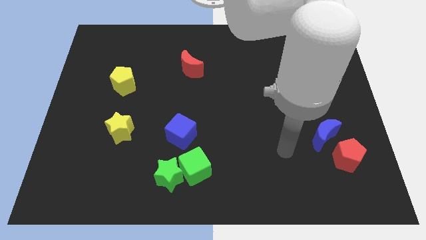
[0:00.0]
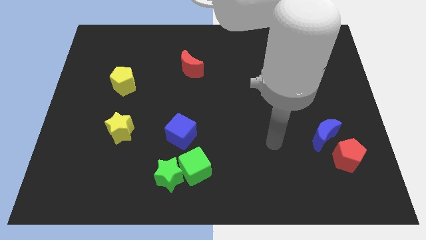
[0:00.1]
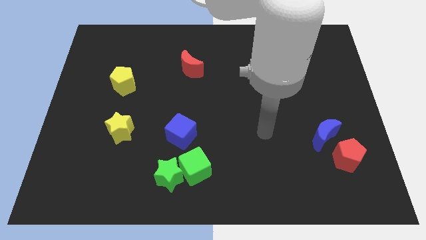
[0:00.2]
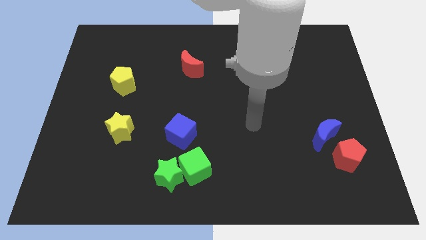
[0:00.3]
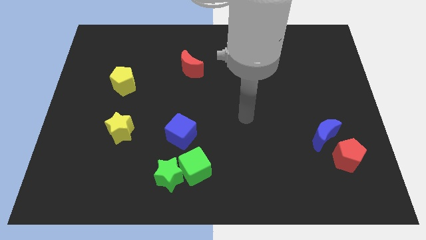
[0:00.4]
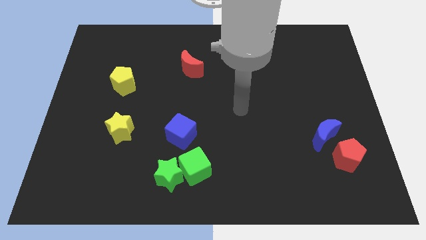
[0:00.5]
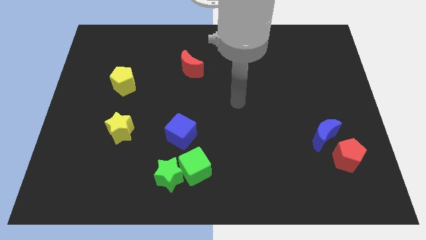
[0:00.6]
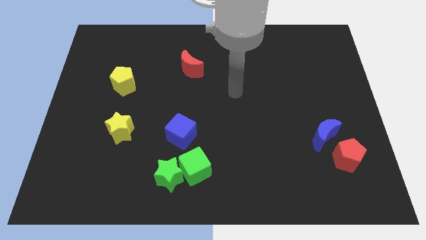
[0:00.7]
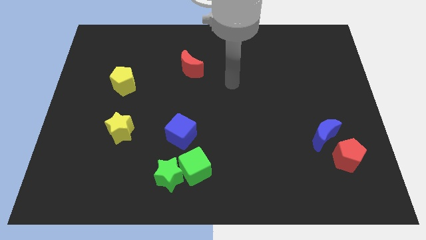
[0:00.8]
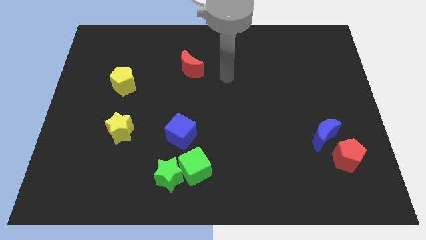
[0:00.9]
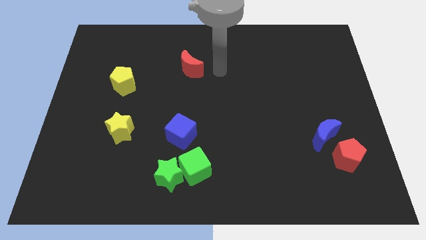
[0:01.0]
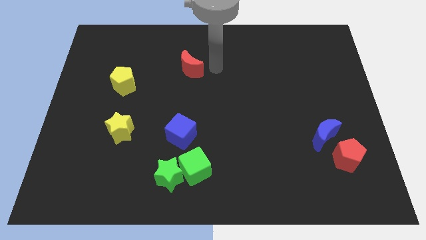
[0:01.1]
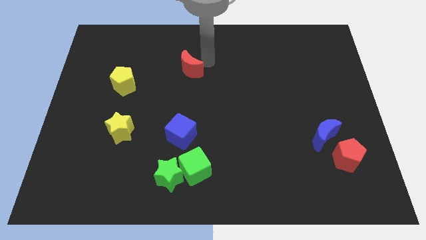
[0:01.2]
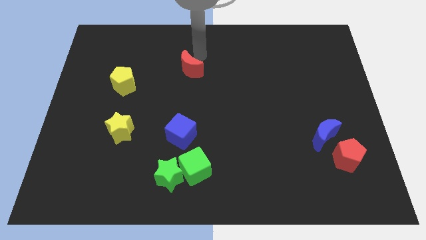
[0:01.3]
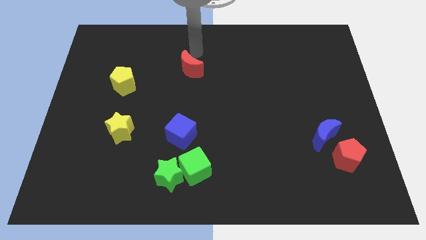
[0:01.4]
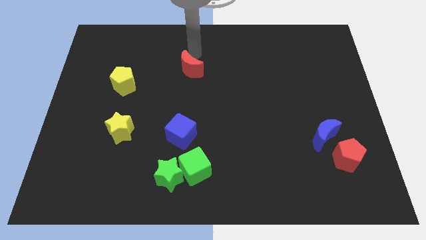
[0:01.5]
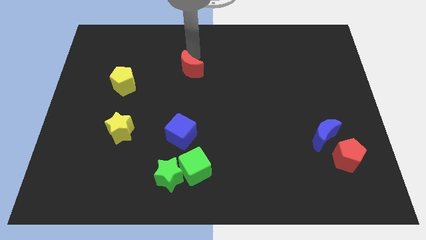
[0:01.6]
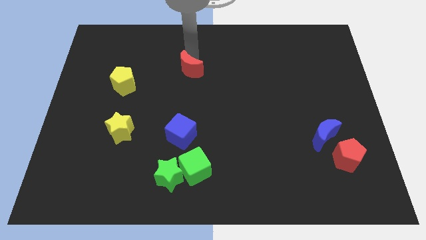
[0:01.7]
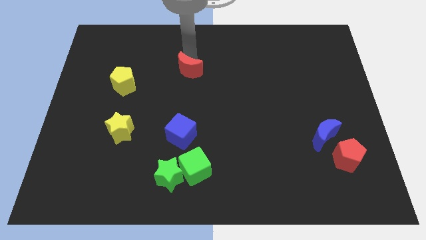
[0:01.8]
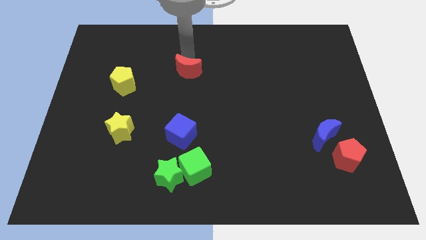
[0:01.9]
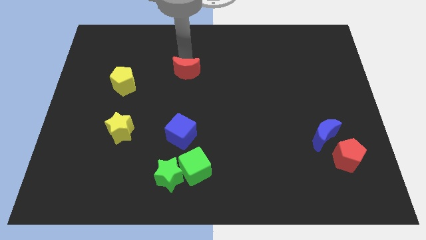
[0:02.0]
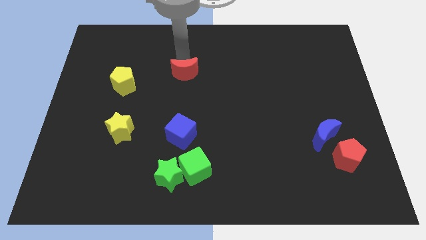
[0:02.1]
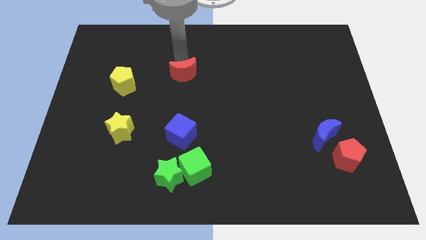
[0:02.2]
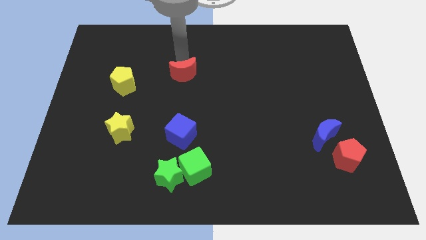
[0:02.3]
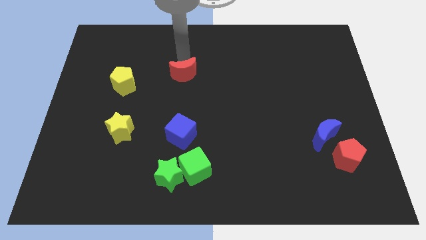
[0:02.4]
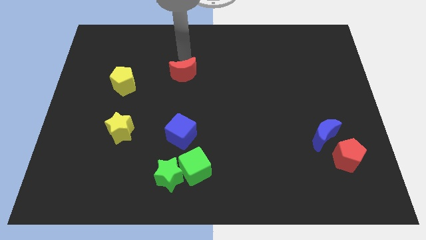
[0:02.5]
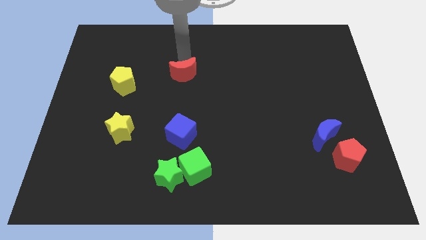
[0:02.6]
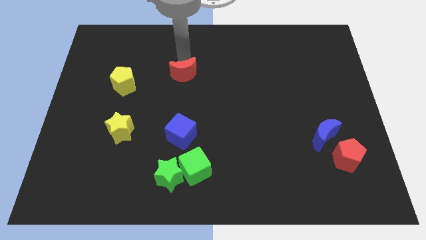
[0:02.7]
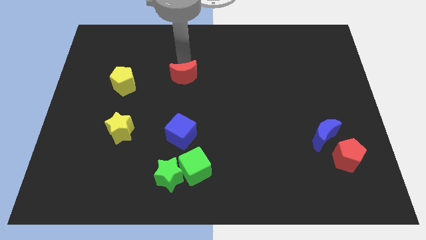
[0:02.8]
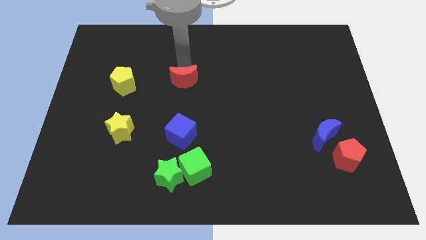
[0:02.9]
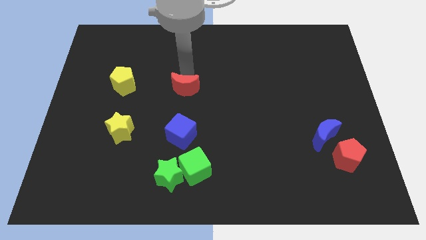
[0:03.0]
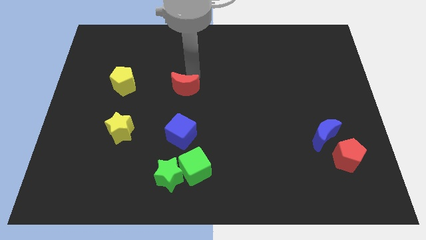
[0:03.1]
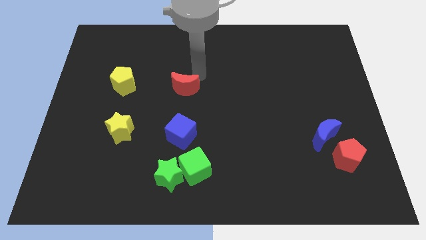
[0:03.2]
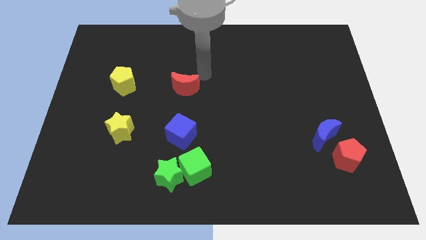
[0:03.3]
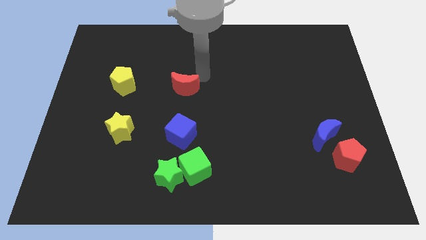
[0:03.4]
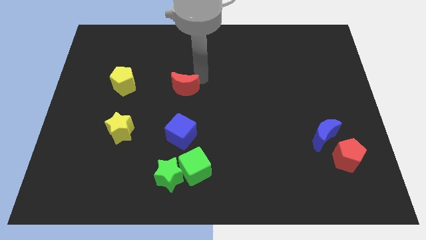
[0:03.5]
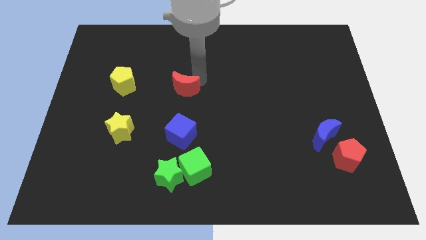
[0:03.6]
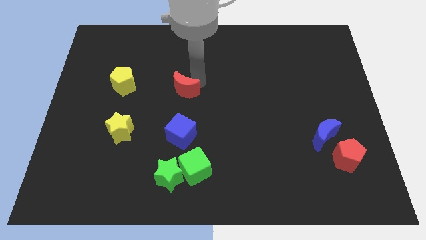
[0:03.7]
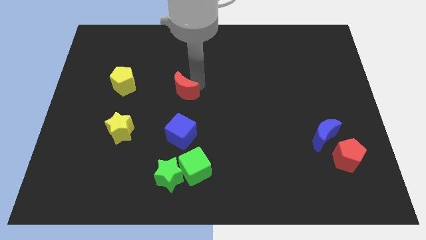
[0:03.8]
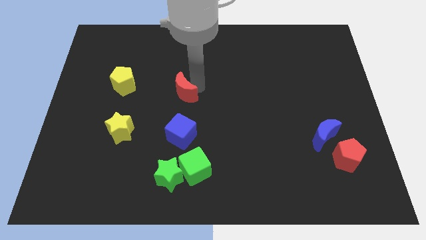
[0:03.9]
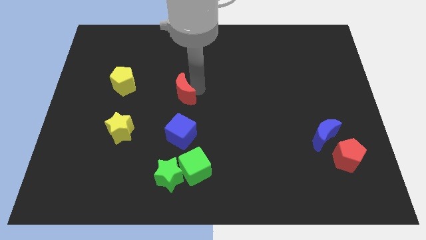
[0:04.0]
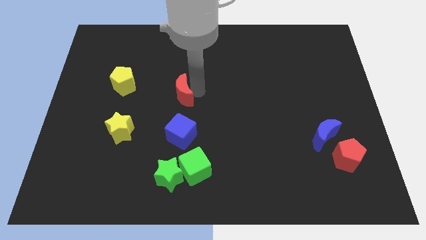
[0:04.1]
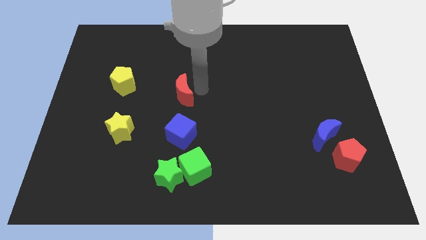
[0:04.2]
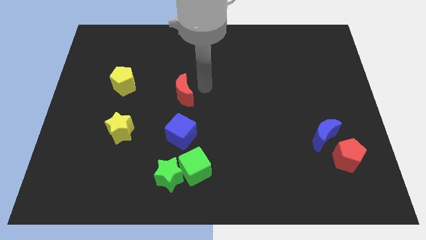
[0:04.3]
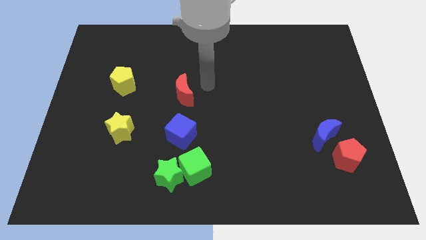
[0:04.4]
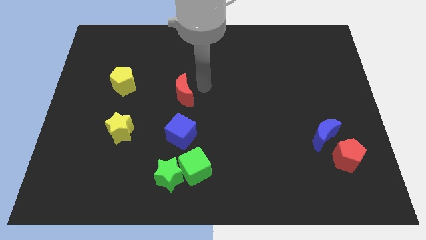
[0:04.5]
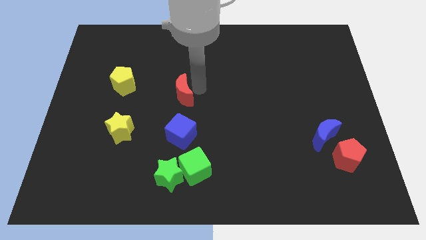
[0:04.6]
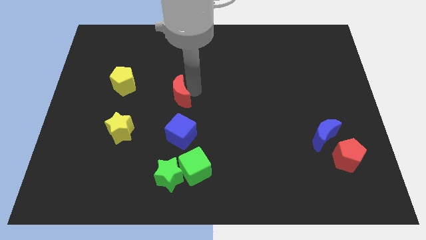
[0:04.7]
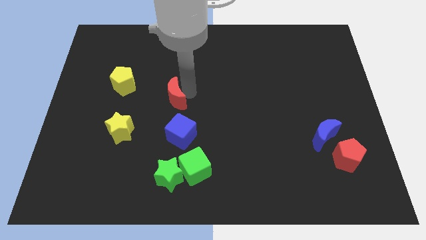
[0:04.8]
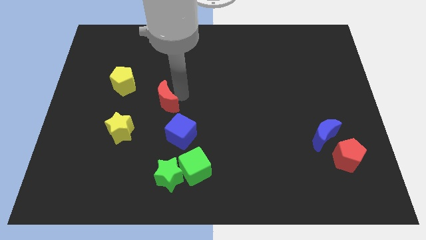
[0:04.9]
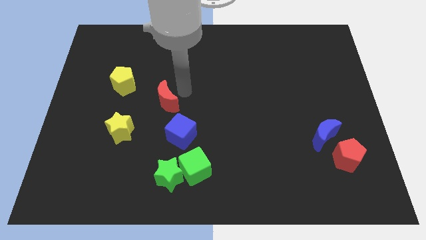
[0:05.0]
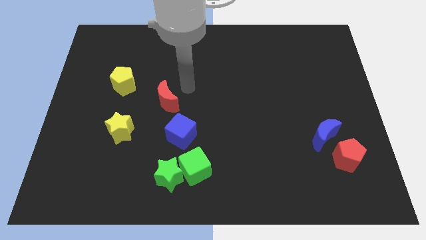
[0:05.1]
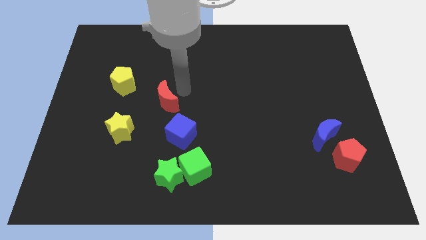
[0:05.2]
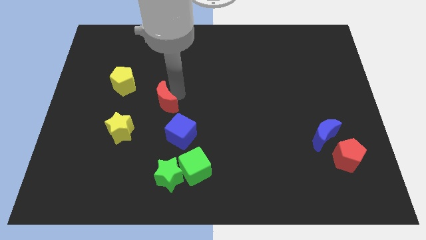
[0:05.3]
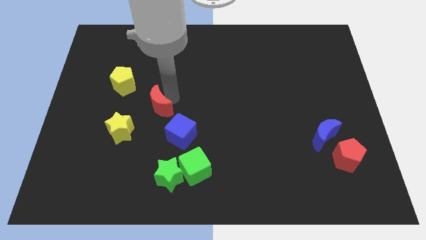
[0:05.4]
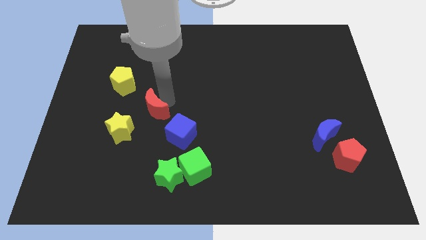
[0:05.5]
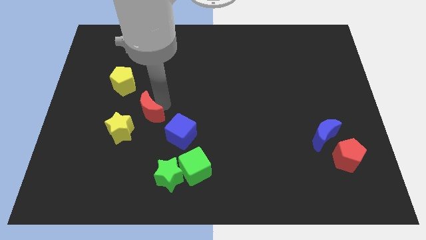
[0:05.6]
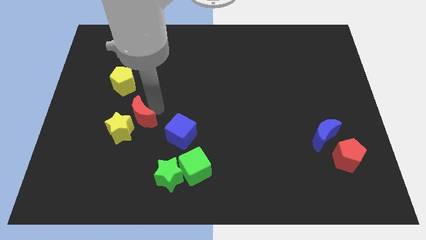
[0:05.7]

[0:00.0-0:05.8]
push the red moon to the yellow star

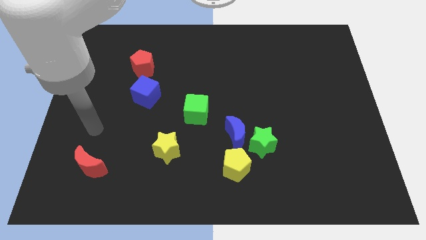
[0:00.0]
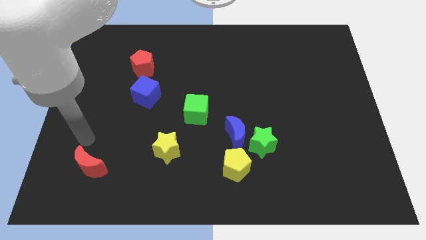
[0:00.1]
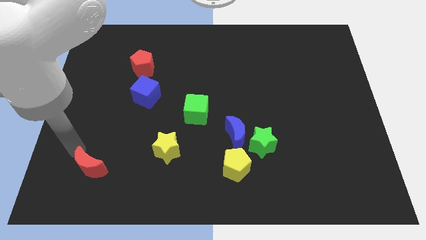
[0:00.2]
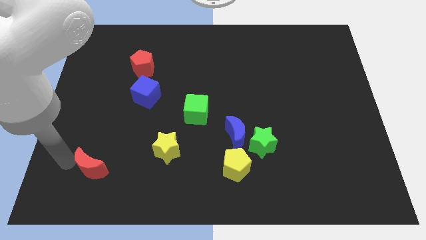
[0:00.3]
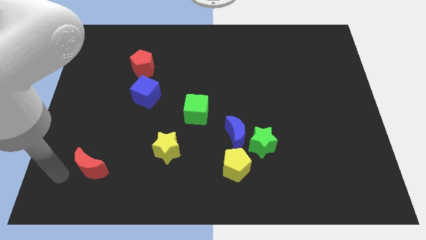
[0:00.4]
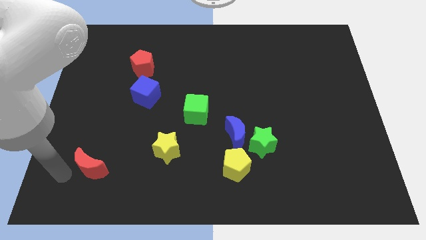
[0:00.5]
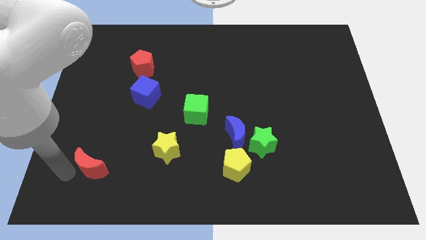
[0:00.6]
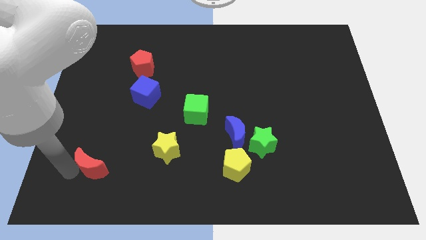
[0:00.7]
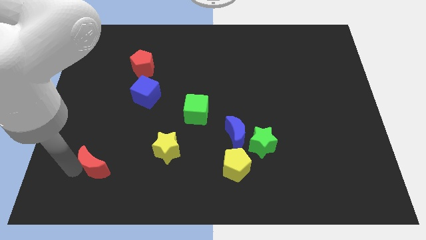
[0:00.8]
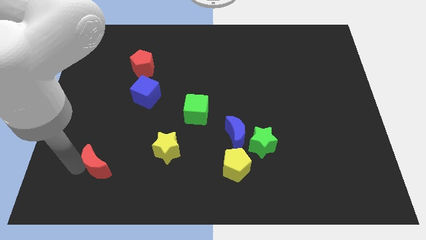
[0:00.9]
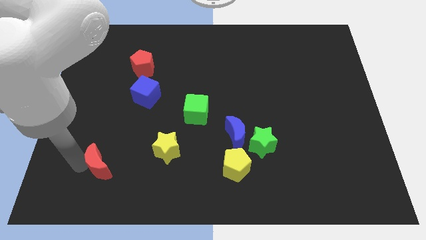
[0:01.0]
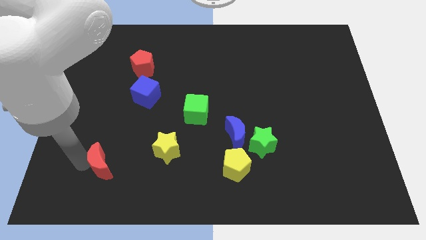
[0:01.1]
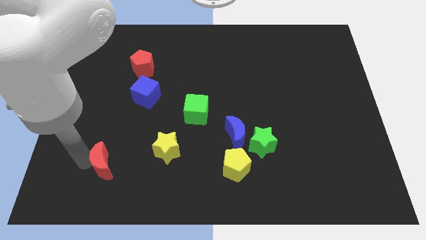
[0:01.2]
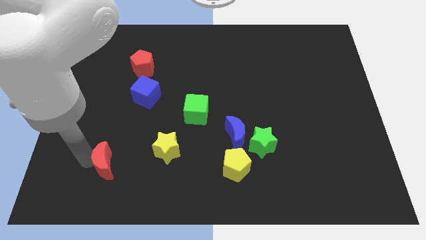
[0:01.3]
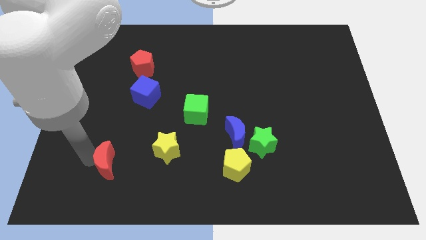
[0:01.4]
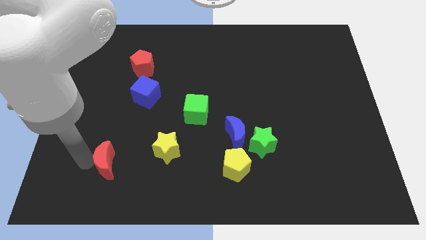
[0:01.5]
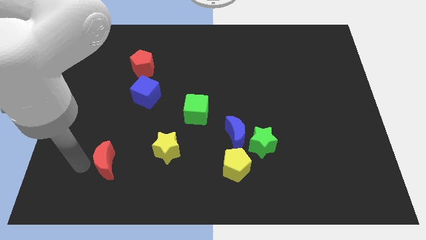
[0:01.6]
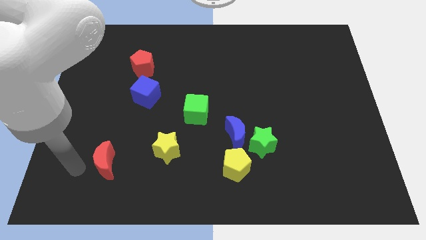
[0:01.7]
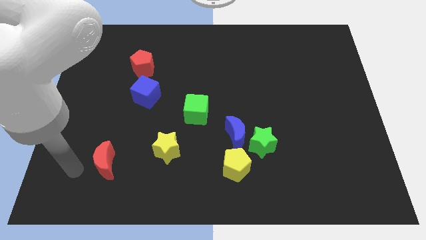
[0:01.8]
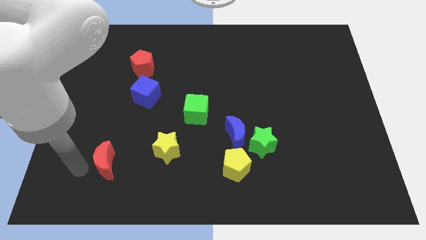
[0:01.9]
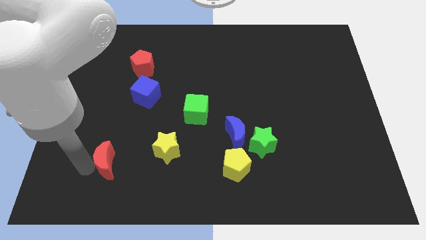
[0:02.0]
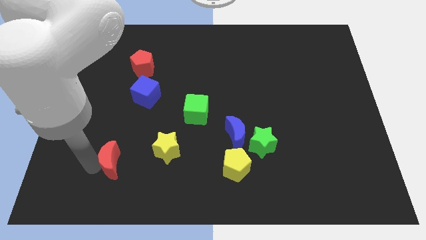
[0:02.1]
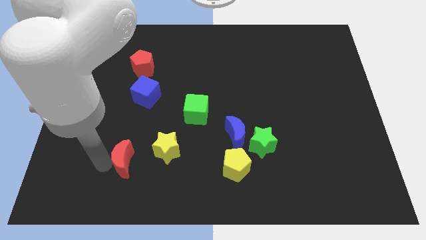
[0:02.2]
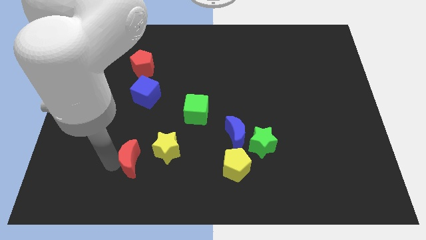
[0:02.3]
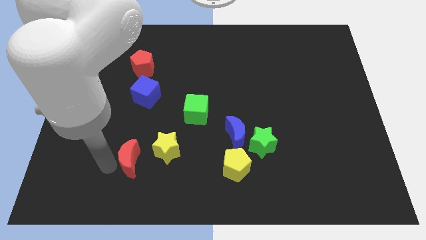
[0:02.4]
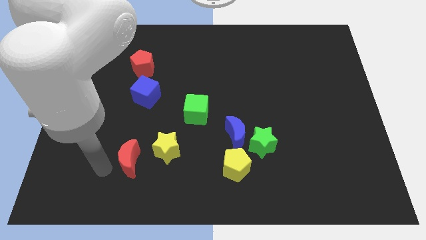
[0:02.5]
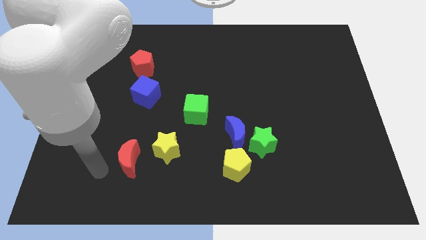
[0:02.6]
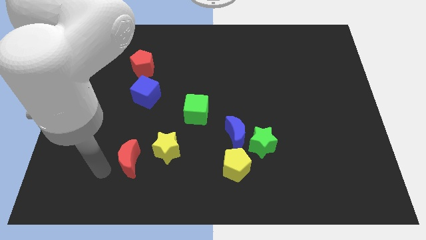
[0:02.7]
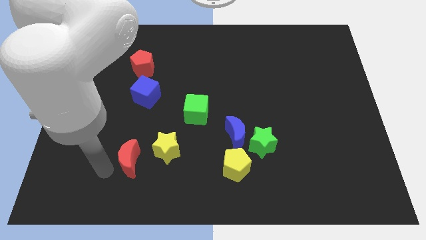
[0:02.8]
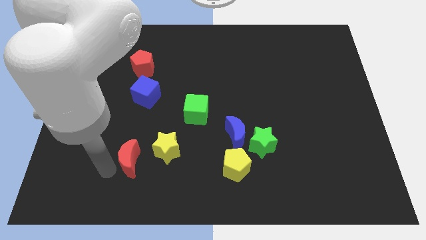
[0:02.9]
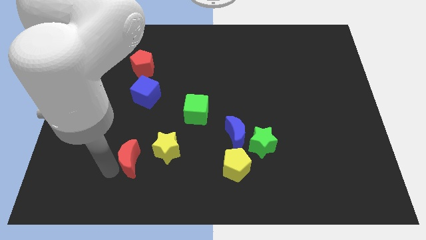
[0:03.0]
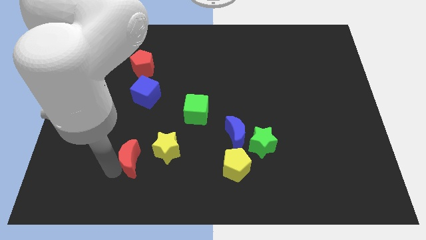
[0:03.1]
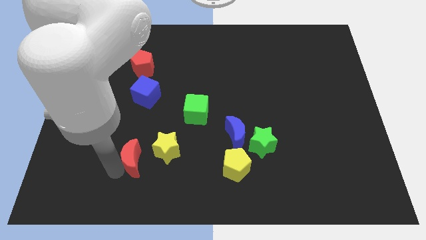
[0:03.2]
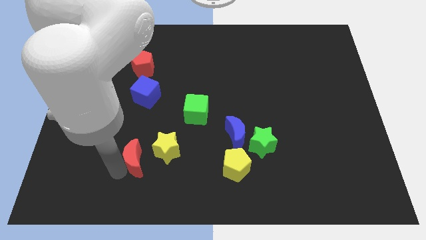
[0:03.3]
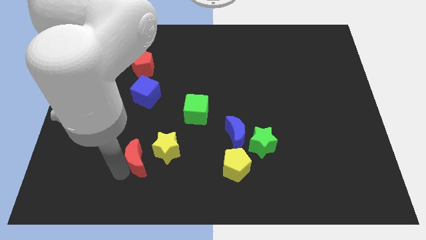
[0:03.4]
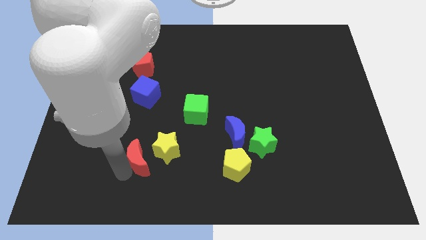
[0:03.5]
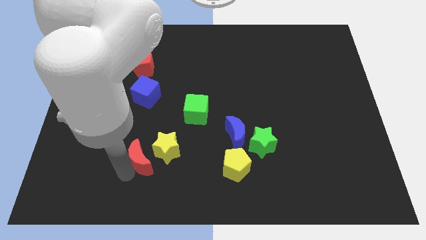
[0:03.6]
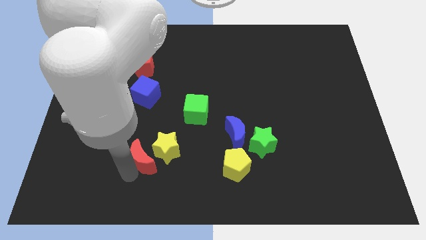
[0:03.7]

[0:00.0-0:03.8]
put the red moon towards the yellow star
